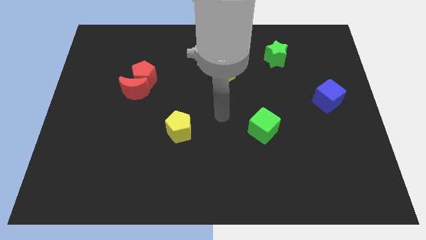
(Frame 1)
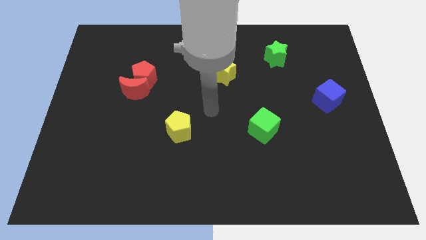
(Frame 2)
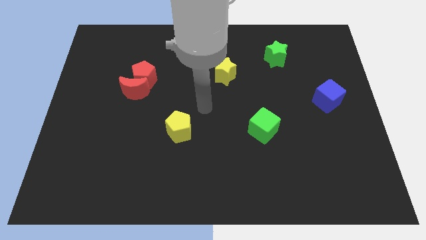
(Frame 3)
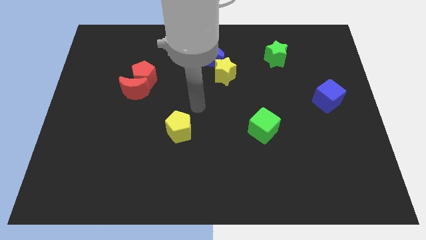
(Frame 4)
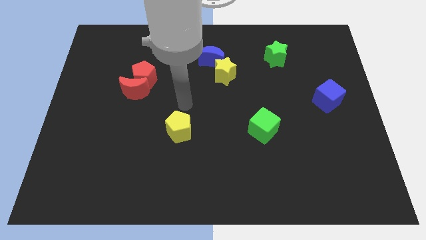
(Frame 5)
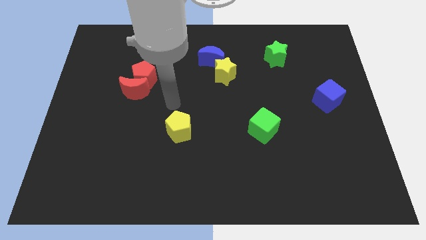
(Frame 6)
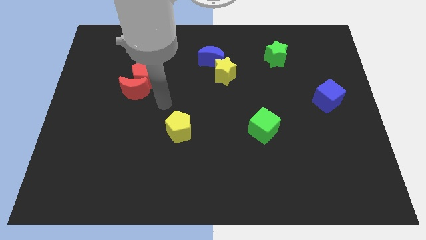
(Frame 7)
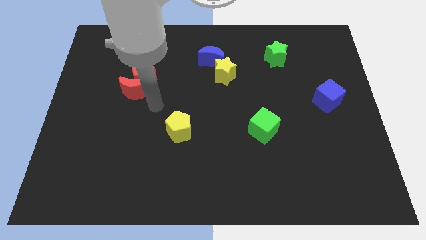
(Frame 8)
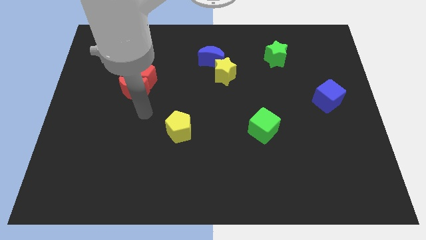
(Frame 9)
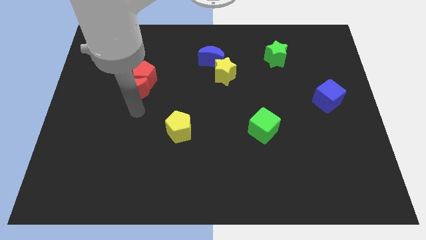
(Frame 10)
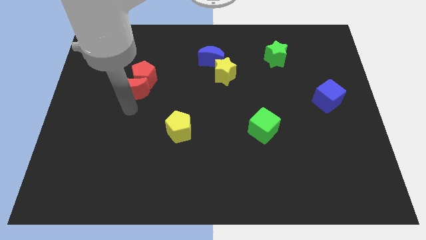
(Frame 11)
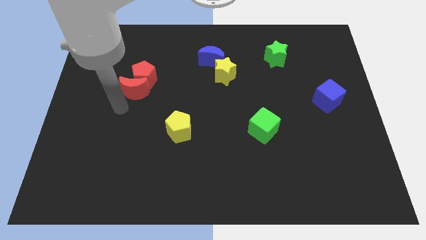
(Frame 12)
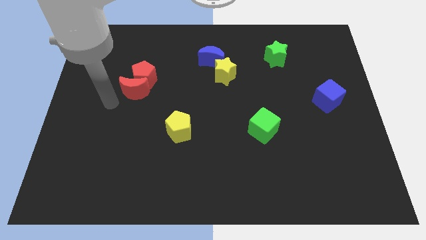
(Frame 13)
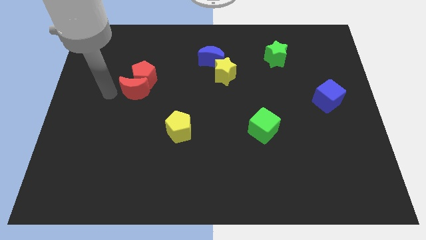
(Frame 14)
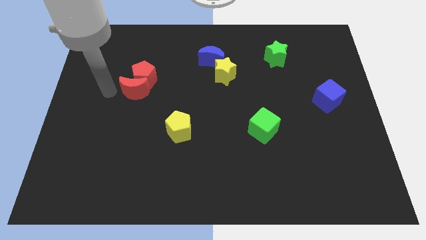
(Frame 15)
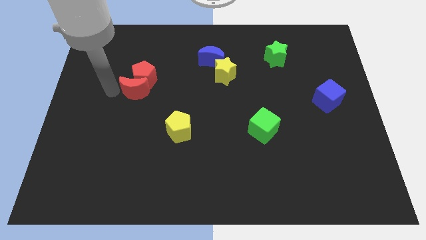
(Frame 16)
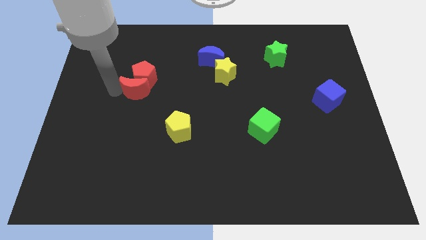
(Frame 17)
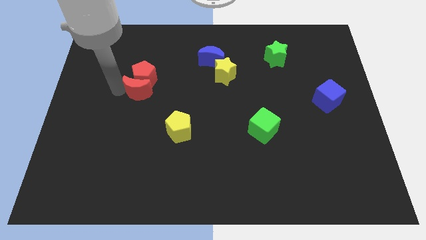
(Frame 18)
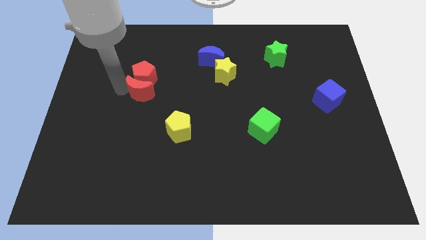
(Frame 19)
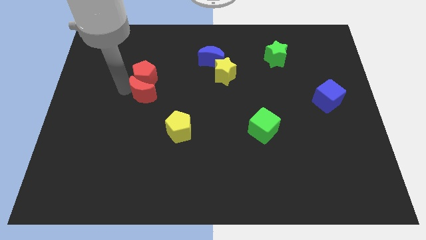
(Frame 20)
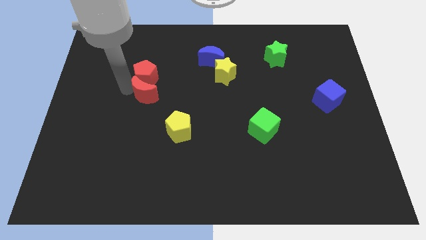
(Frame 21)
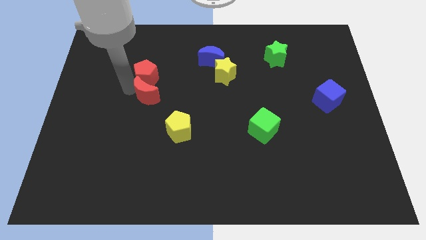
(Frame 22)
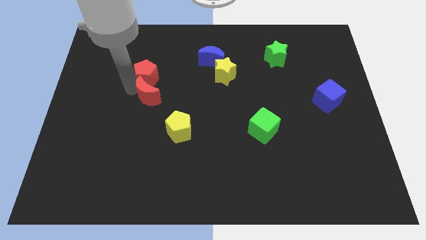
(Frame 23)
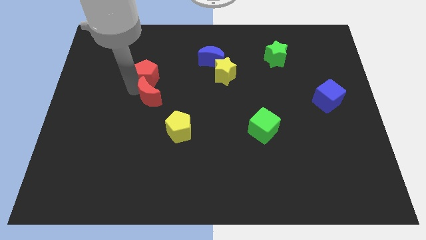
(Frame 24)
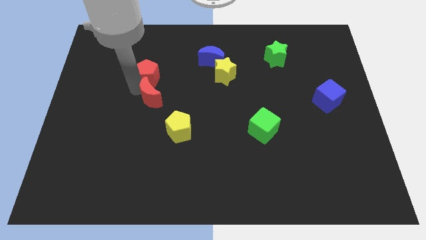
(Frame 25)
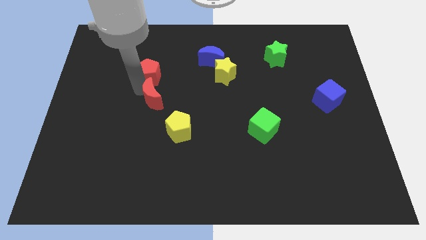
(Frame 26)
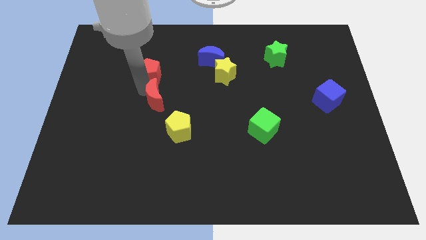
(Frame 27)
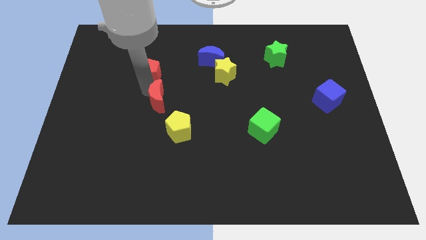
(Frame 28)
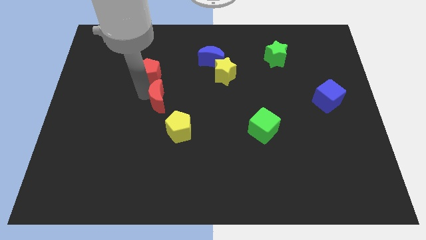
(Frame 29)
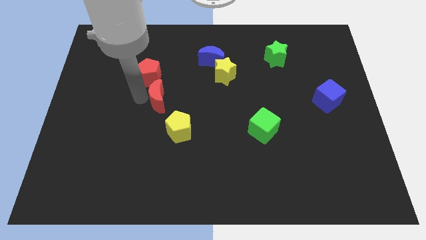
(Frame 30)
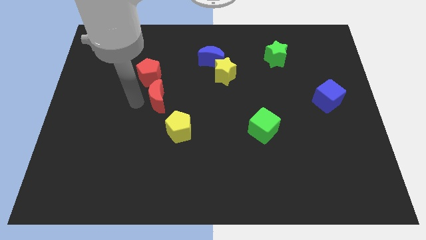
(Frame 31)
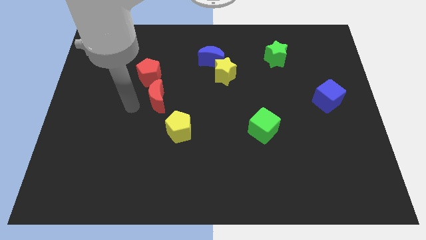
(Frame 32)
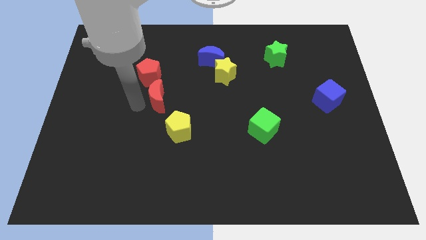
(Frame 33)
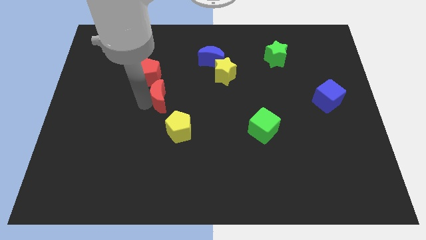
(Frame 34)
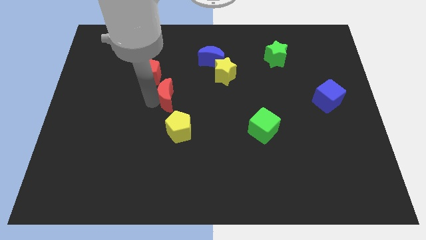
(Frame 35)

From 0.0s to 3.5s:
slightly slide the red moon right

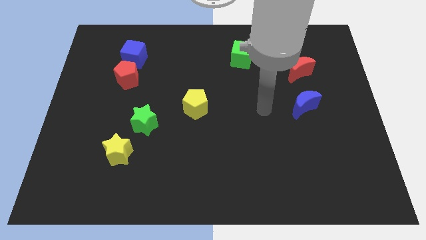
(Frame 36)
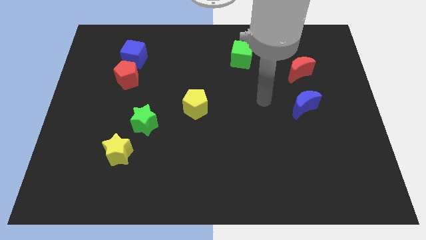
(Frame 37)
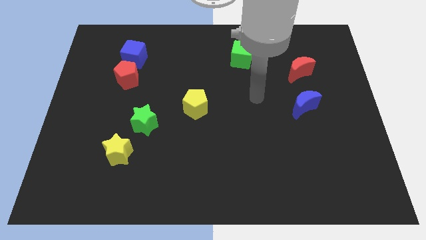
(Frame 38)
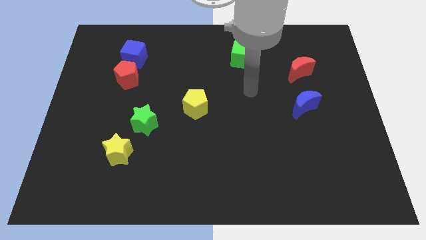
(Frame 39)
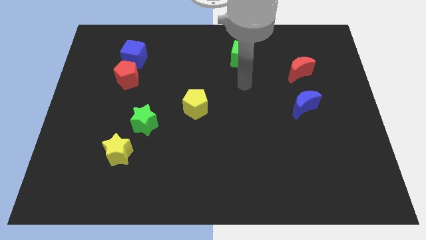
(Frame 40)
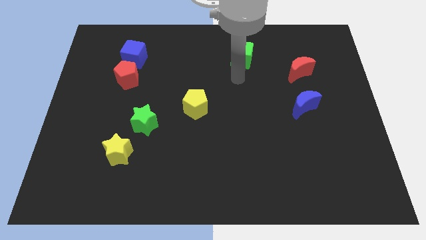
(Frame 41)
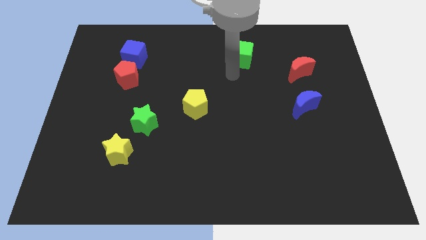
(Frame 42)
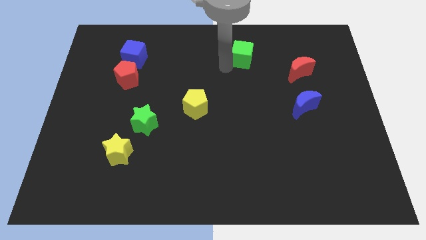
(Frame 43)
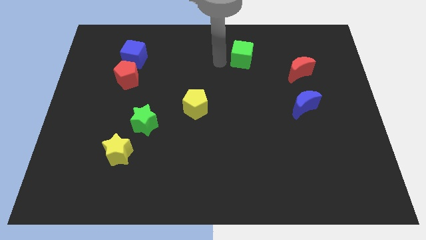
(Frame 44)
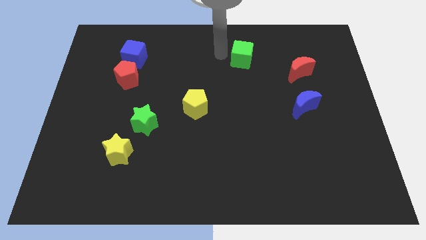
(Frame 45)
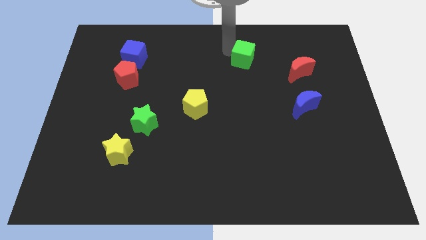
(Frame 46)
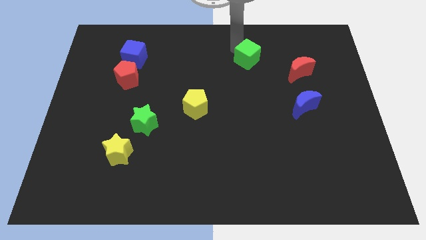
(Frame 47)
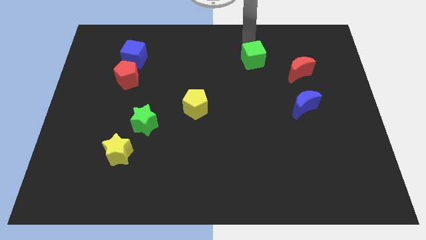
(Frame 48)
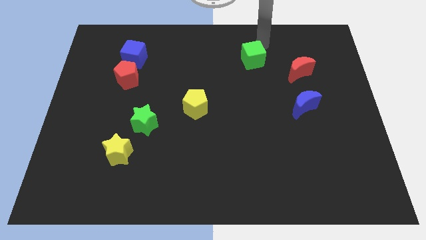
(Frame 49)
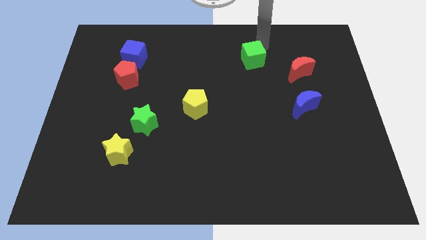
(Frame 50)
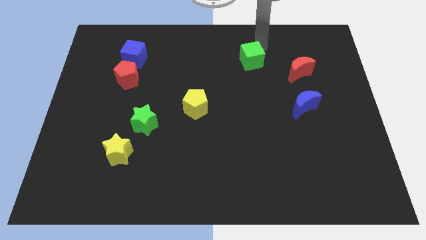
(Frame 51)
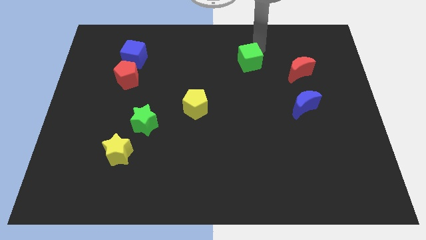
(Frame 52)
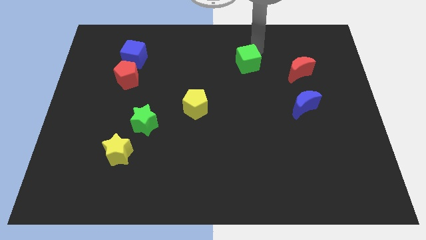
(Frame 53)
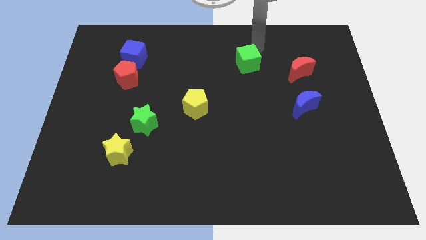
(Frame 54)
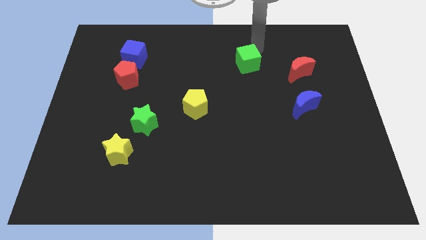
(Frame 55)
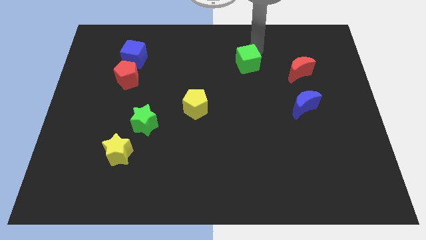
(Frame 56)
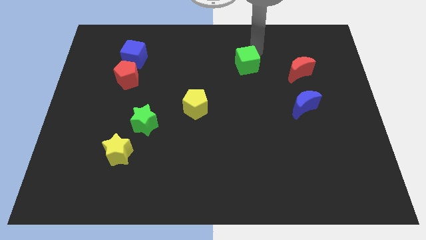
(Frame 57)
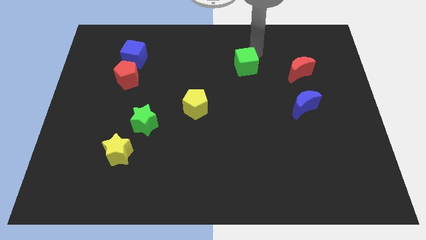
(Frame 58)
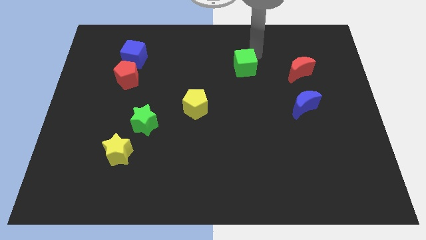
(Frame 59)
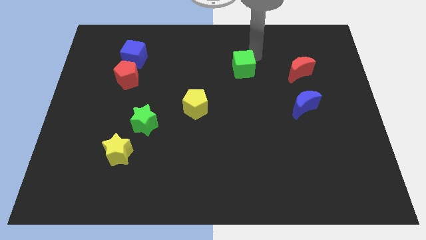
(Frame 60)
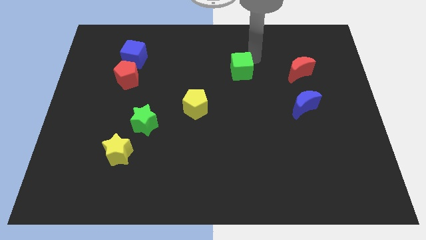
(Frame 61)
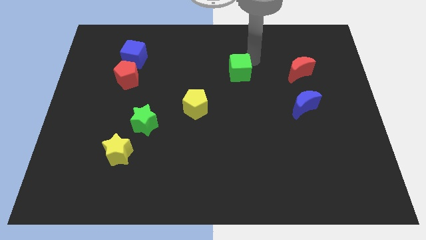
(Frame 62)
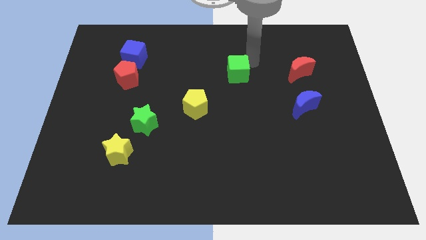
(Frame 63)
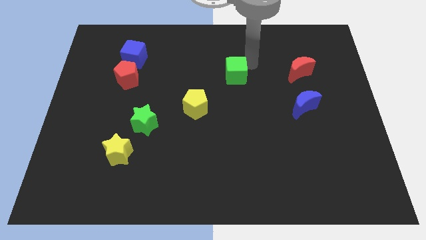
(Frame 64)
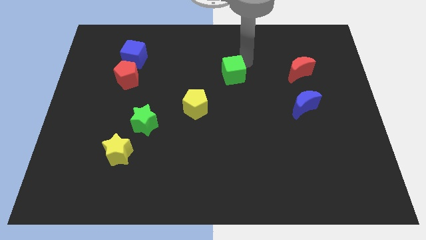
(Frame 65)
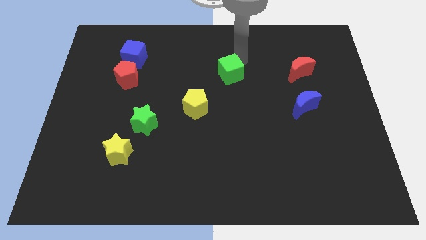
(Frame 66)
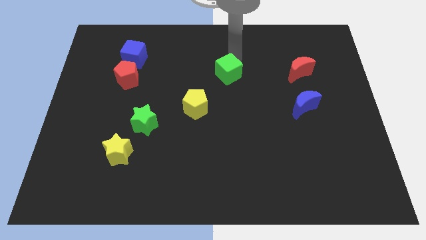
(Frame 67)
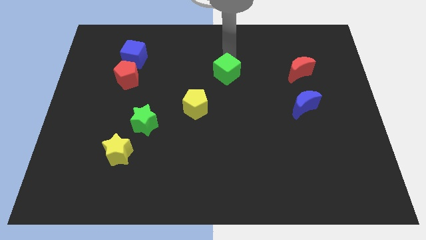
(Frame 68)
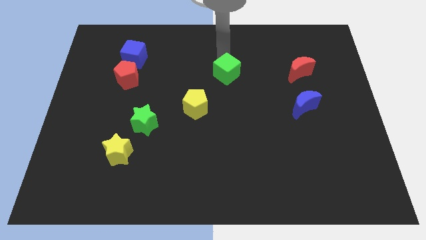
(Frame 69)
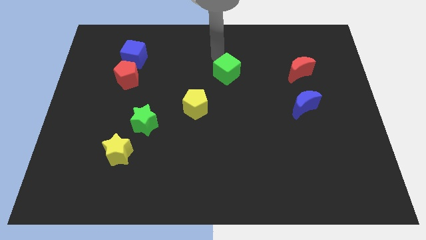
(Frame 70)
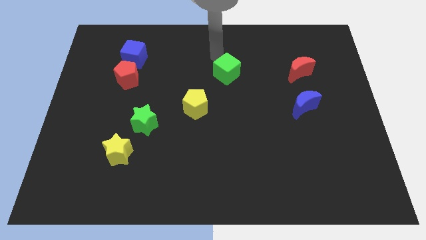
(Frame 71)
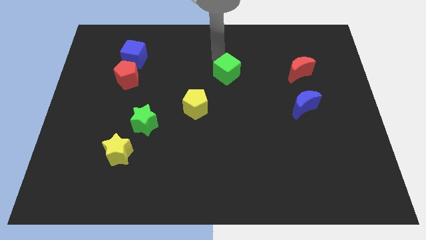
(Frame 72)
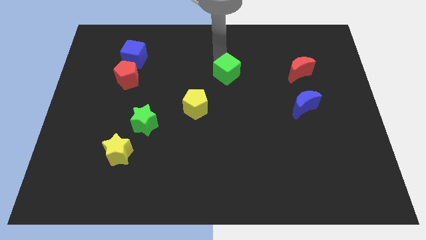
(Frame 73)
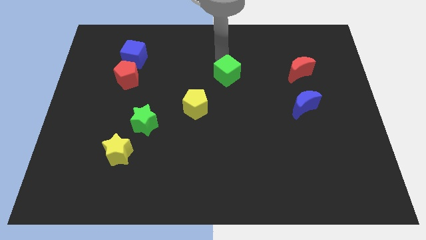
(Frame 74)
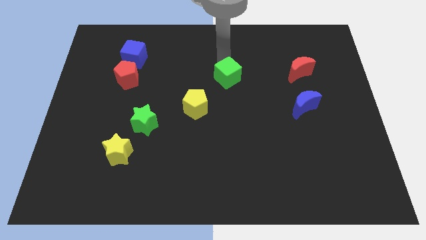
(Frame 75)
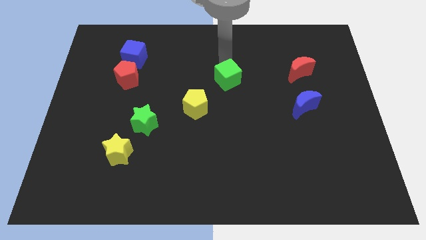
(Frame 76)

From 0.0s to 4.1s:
slightly push the green cube downwards

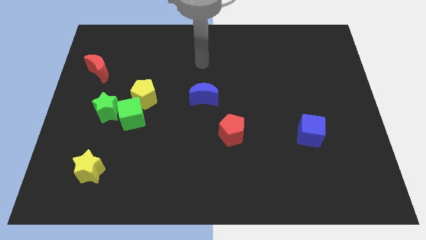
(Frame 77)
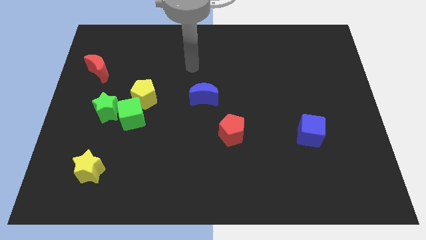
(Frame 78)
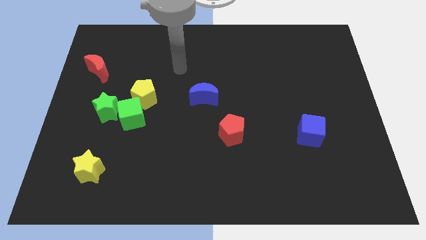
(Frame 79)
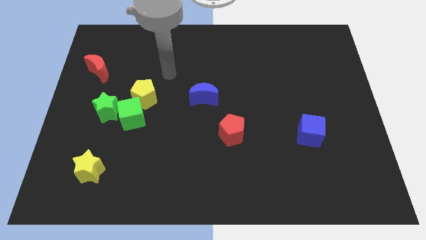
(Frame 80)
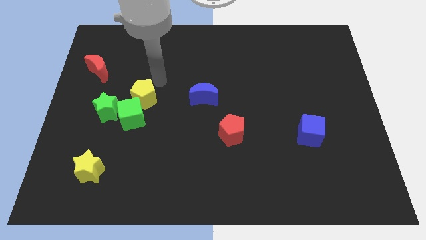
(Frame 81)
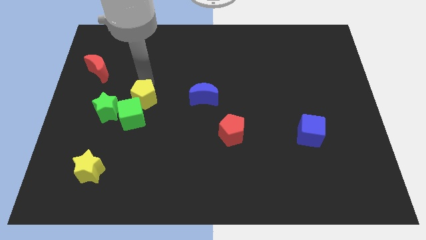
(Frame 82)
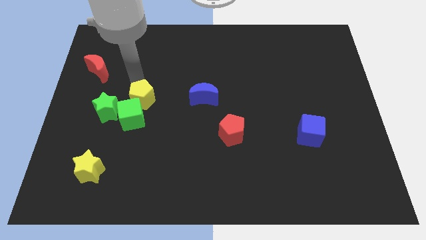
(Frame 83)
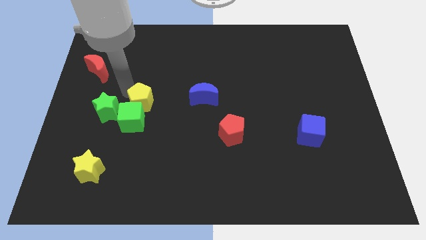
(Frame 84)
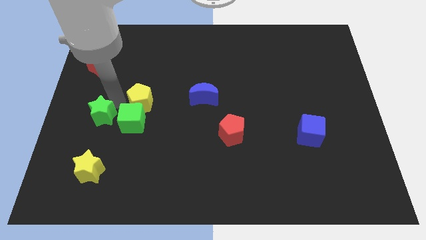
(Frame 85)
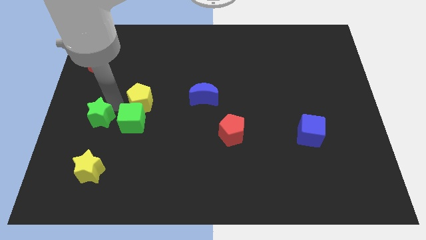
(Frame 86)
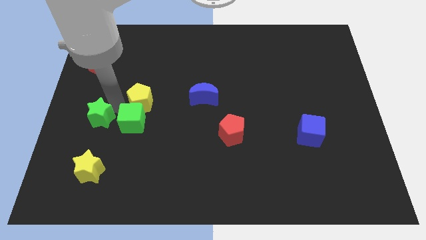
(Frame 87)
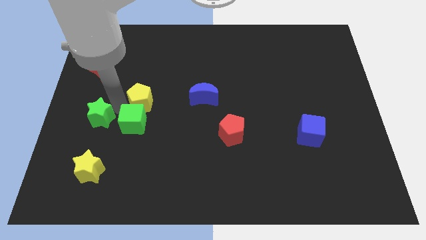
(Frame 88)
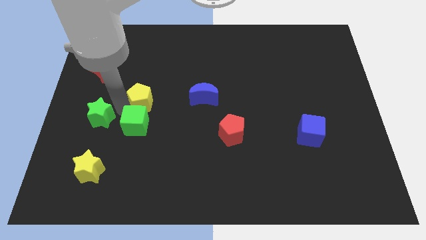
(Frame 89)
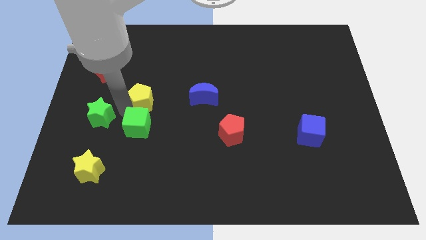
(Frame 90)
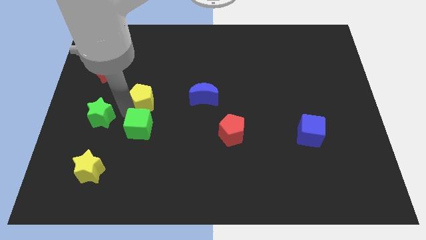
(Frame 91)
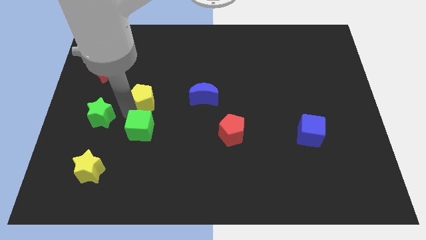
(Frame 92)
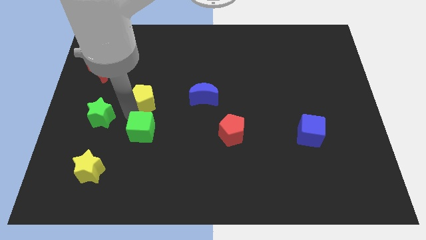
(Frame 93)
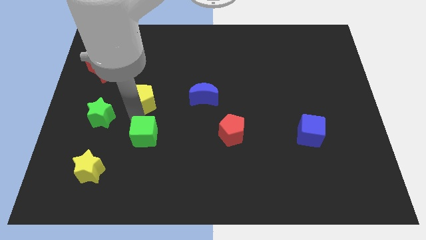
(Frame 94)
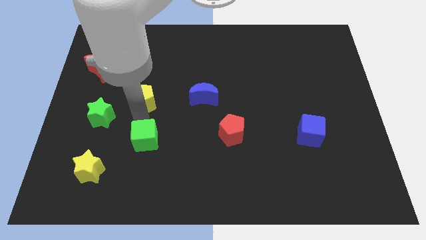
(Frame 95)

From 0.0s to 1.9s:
slide the green cube somewhat downwards and then right
